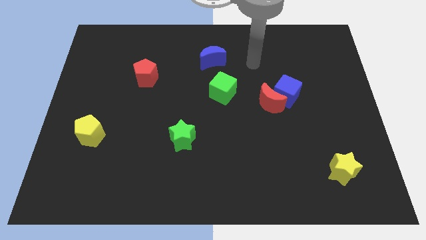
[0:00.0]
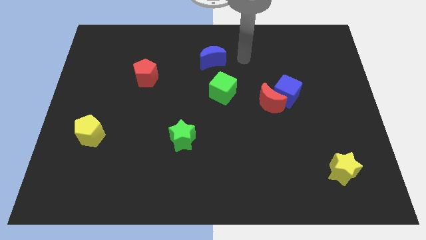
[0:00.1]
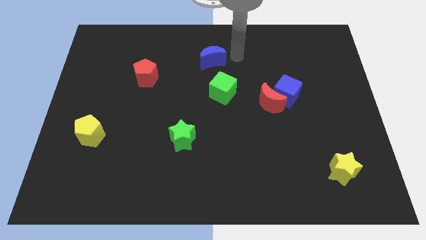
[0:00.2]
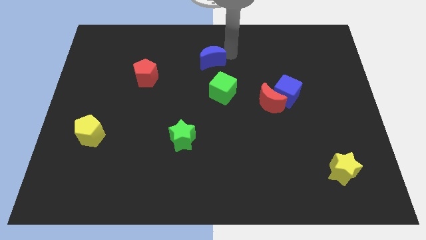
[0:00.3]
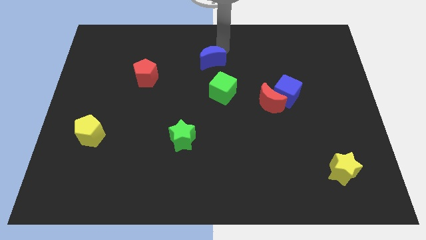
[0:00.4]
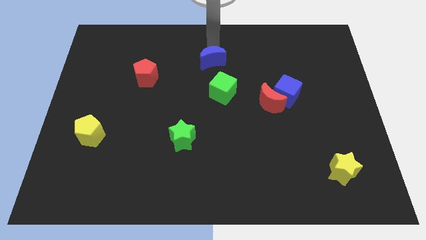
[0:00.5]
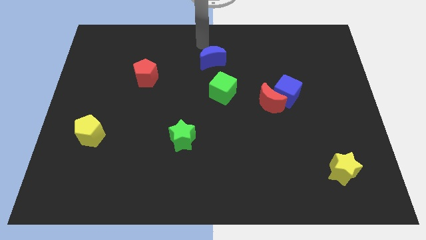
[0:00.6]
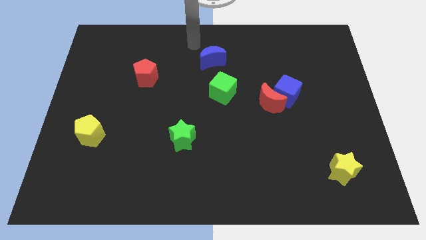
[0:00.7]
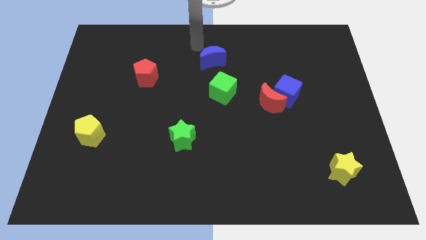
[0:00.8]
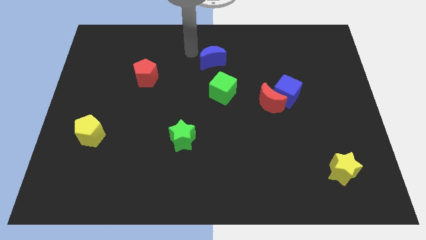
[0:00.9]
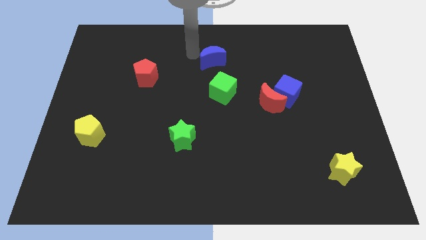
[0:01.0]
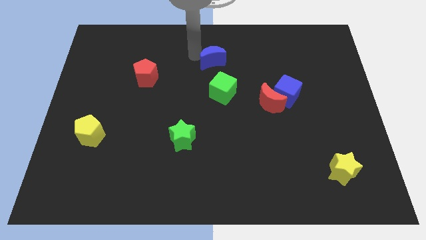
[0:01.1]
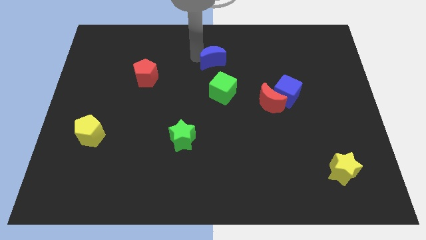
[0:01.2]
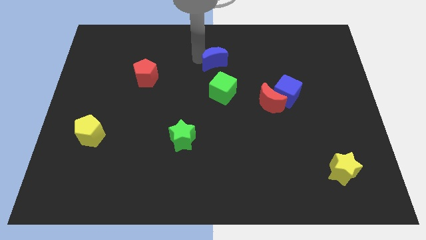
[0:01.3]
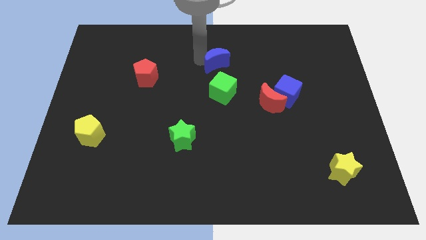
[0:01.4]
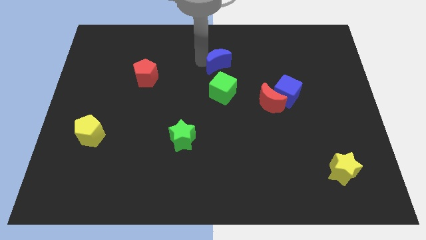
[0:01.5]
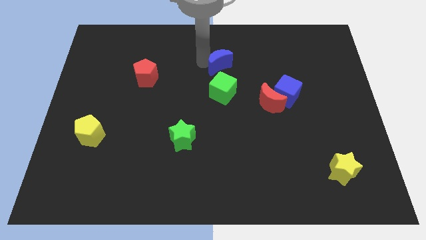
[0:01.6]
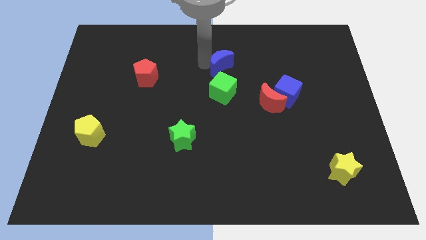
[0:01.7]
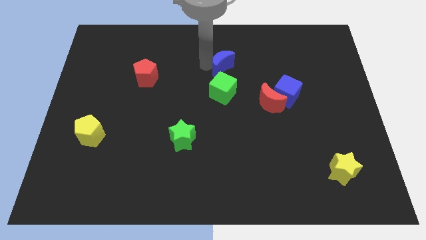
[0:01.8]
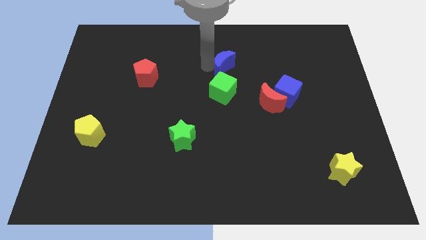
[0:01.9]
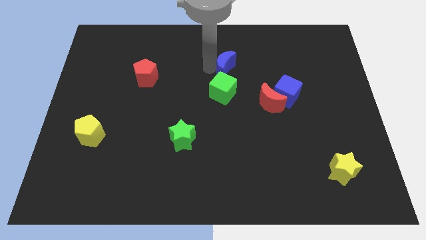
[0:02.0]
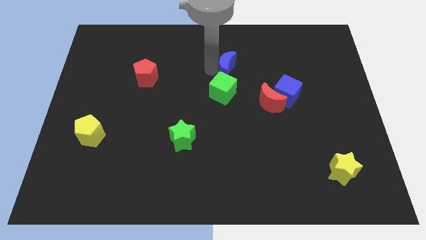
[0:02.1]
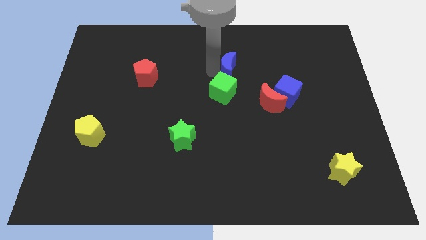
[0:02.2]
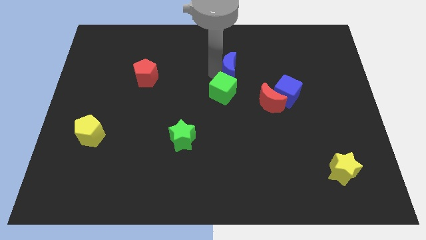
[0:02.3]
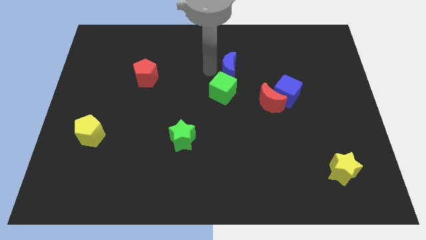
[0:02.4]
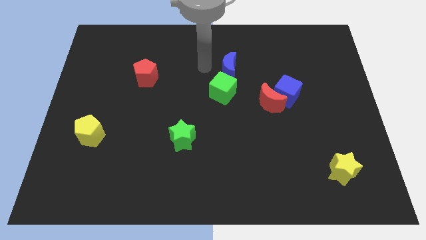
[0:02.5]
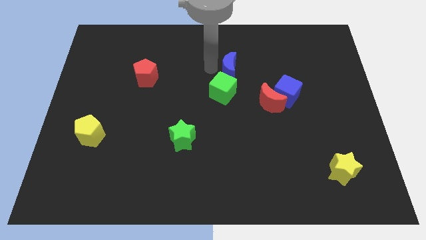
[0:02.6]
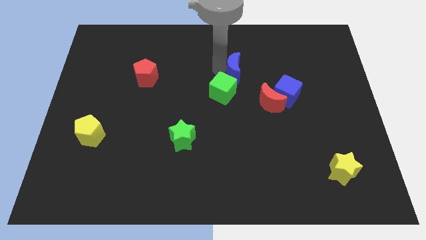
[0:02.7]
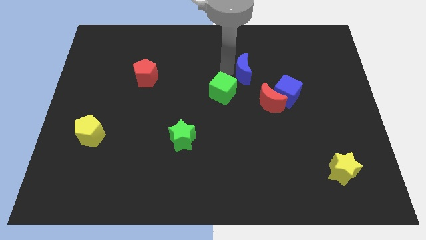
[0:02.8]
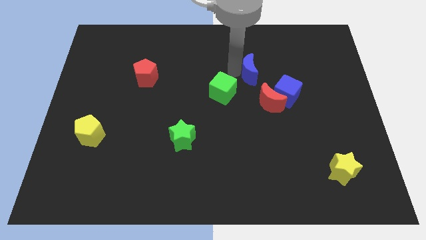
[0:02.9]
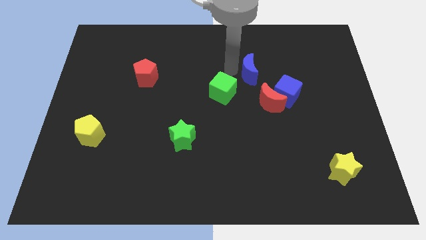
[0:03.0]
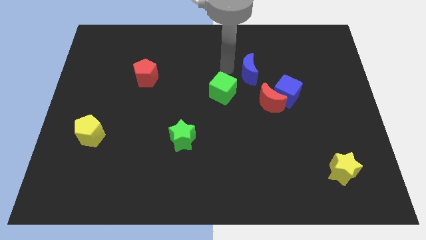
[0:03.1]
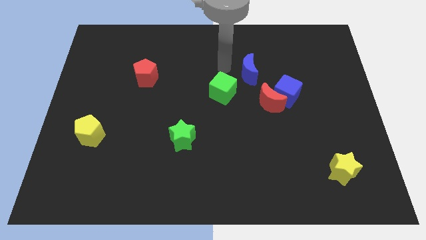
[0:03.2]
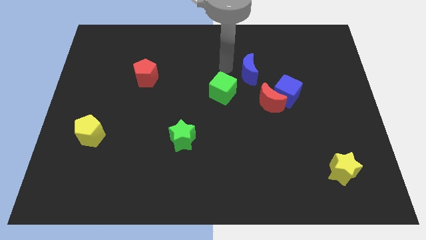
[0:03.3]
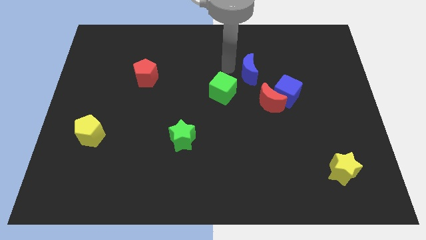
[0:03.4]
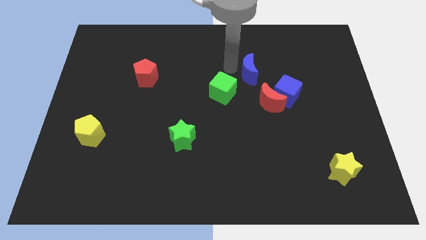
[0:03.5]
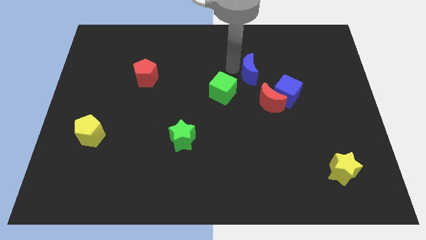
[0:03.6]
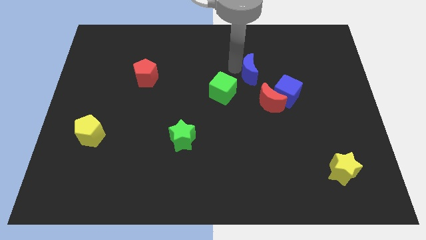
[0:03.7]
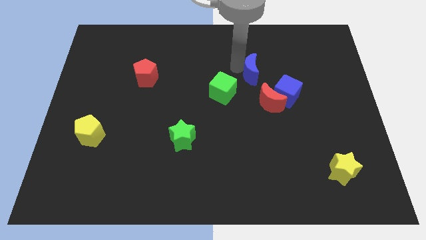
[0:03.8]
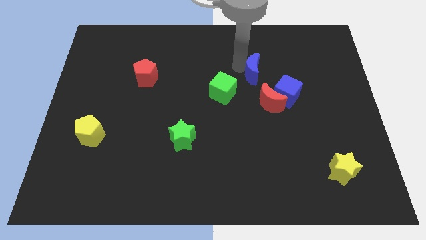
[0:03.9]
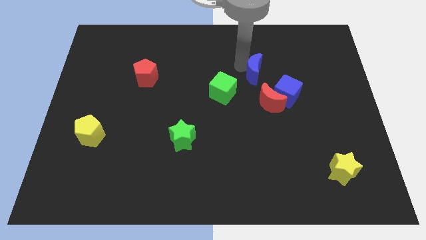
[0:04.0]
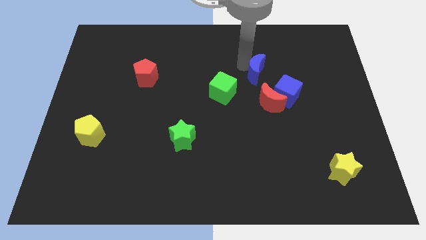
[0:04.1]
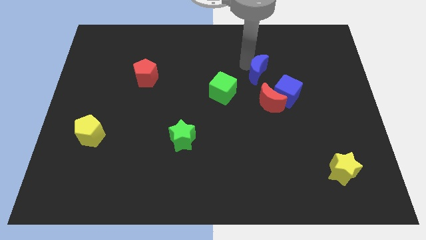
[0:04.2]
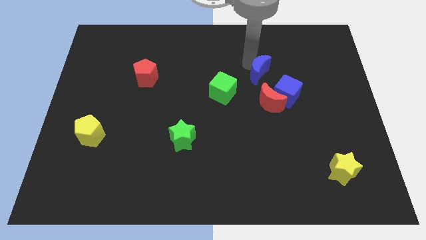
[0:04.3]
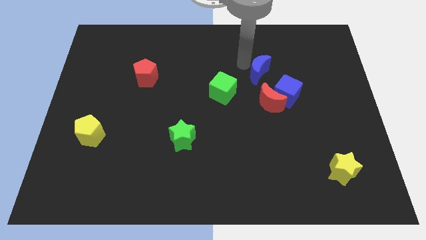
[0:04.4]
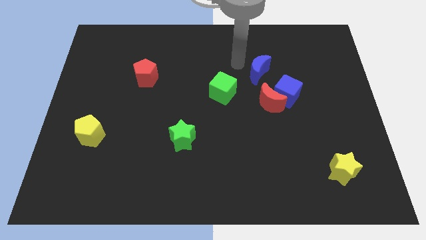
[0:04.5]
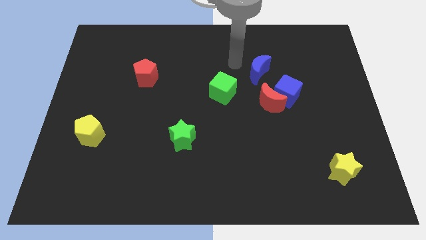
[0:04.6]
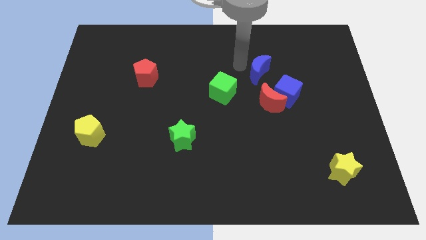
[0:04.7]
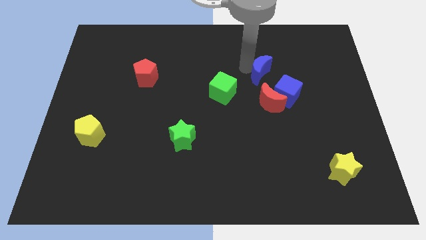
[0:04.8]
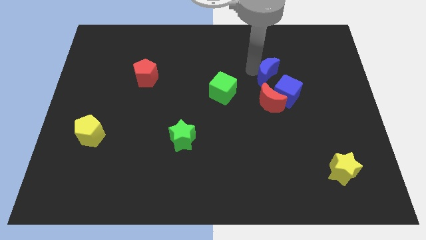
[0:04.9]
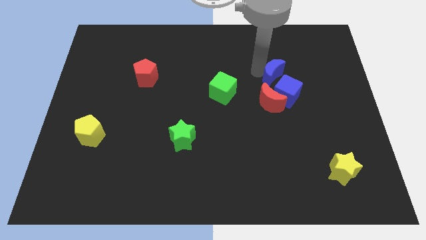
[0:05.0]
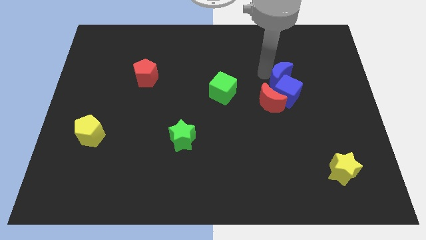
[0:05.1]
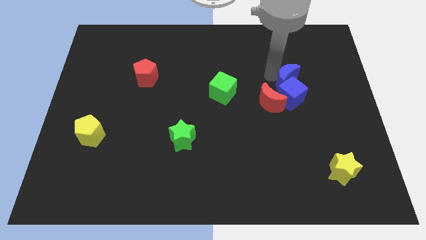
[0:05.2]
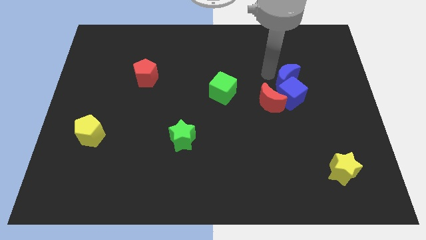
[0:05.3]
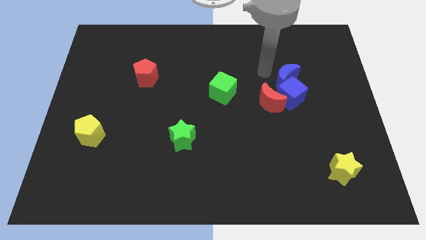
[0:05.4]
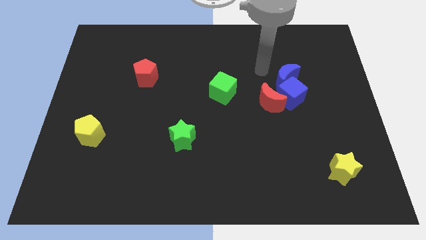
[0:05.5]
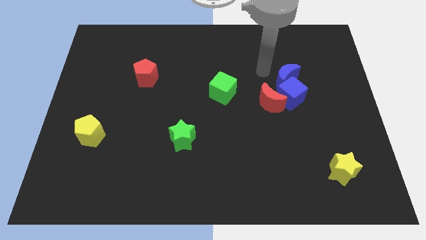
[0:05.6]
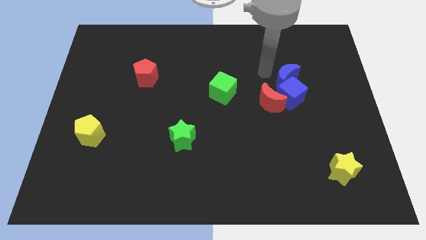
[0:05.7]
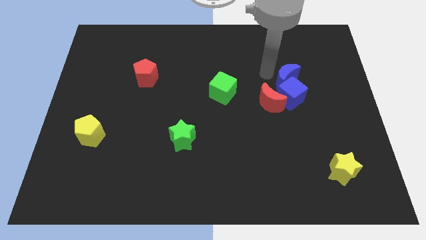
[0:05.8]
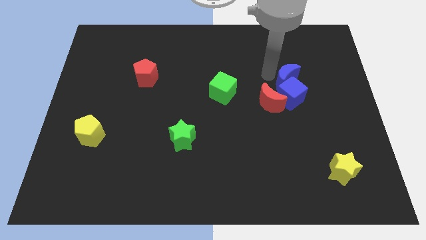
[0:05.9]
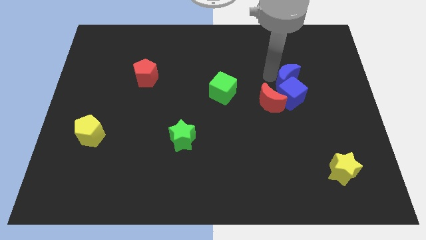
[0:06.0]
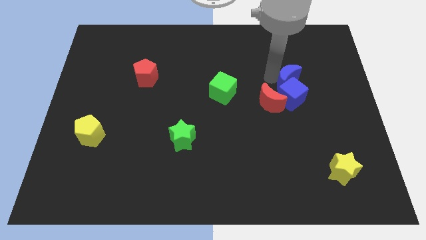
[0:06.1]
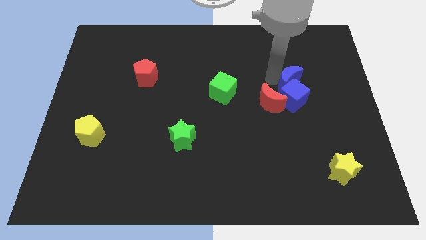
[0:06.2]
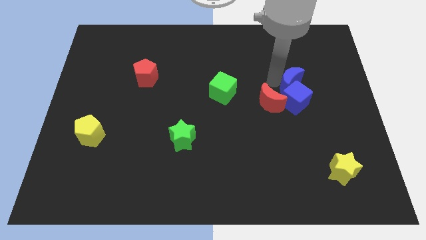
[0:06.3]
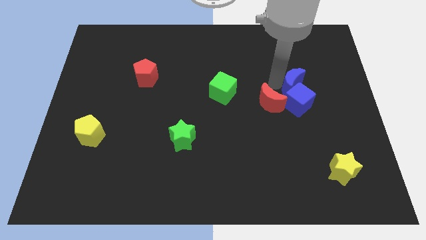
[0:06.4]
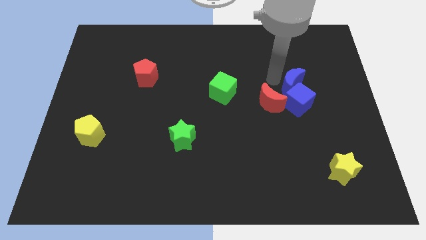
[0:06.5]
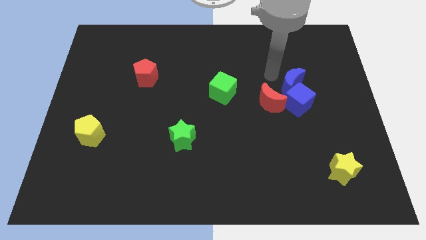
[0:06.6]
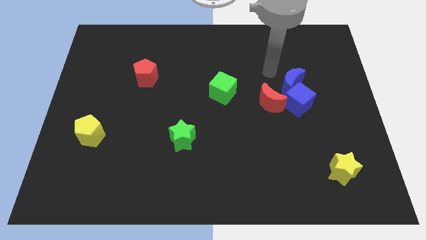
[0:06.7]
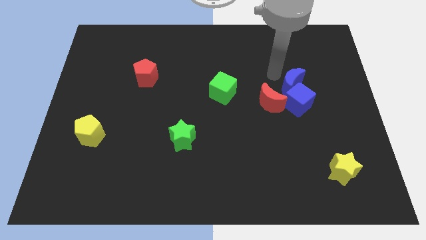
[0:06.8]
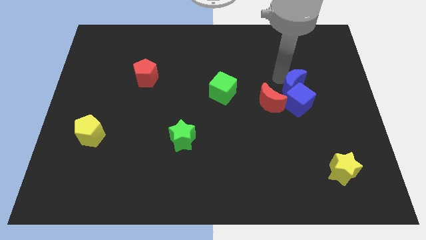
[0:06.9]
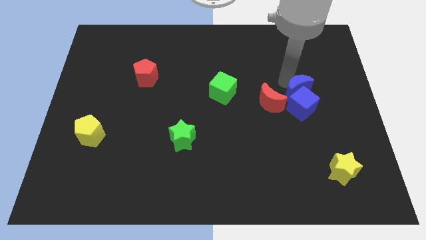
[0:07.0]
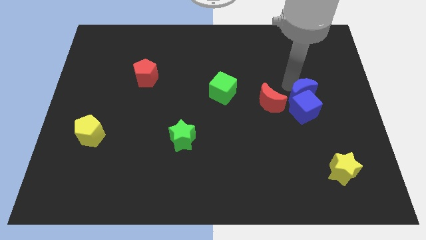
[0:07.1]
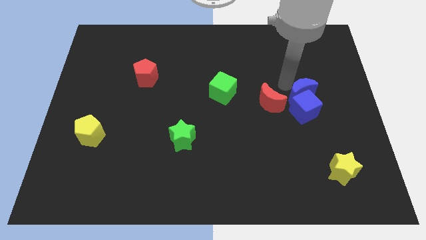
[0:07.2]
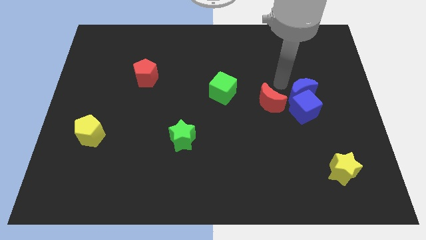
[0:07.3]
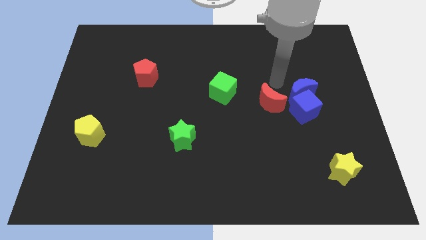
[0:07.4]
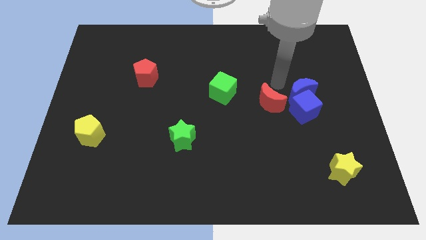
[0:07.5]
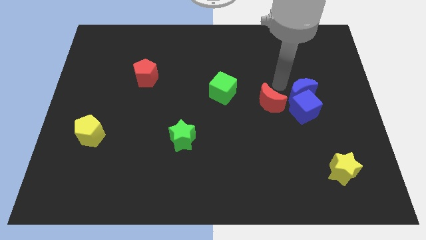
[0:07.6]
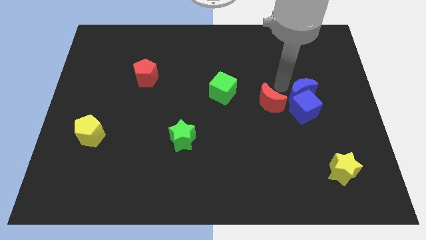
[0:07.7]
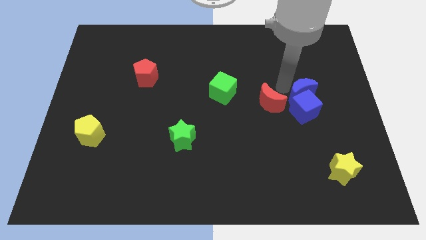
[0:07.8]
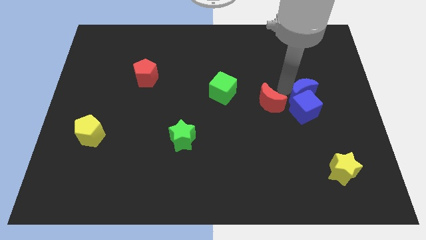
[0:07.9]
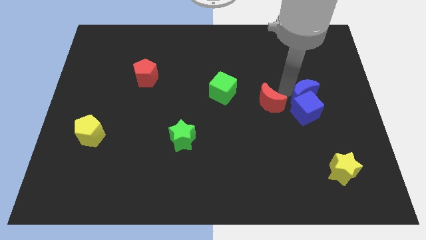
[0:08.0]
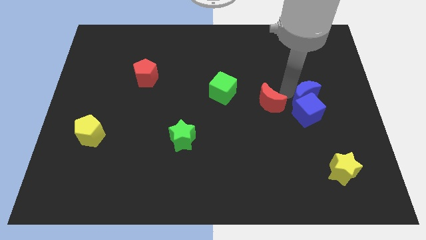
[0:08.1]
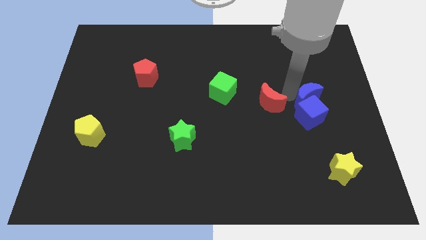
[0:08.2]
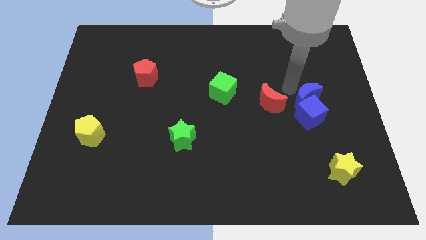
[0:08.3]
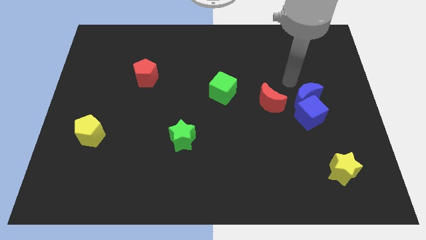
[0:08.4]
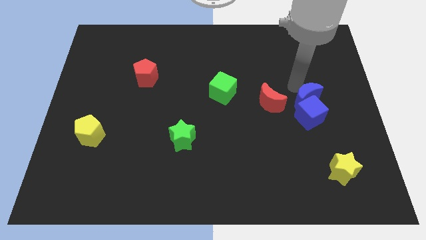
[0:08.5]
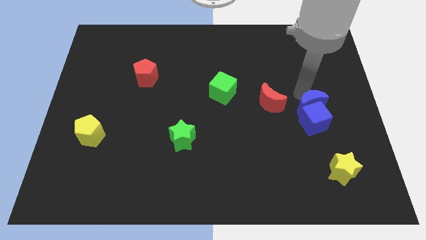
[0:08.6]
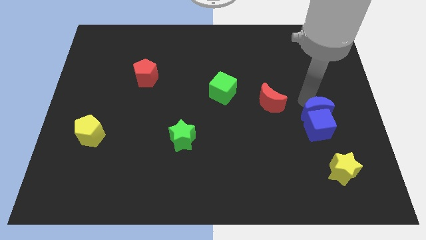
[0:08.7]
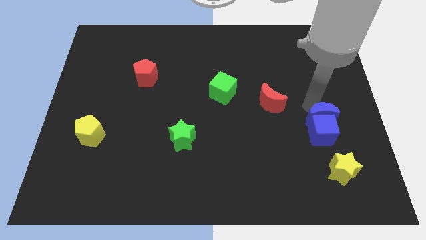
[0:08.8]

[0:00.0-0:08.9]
put the blue moon to the top of the yellow star
